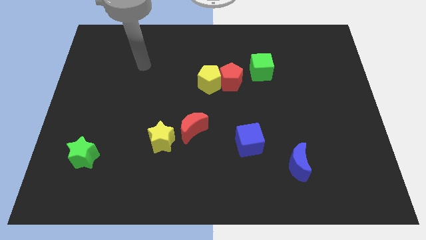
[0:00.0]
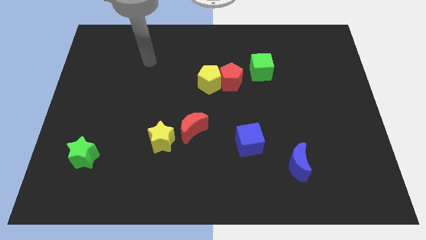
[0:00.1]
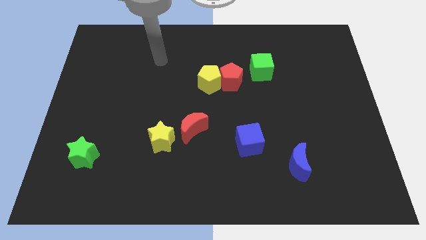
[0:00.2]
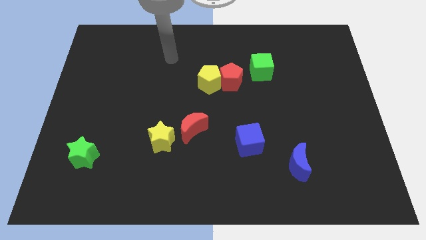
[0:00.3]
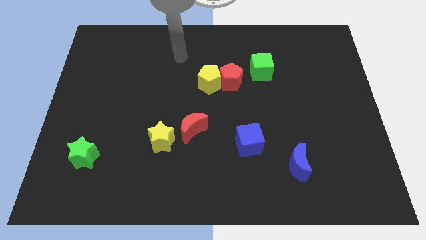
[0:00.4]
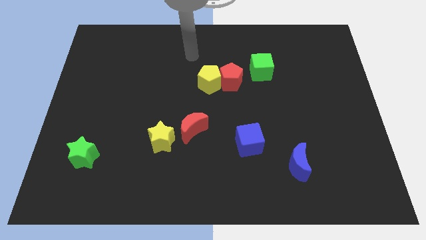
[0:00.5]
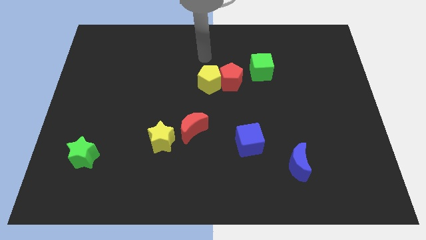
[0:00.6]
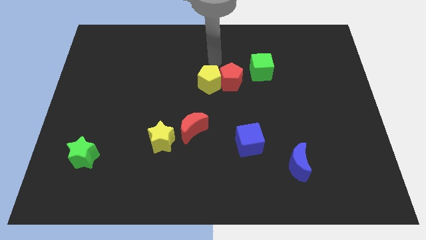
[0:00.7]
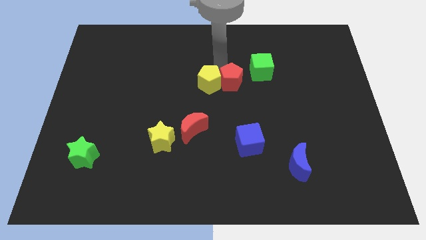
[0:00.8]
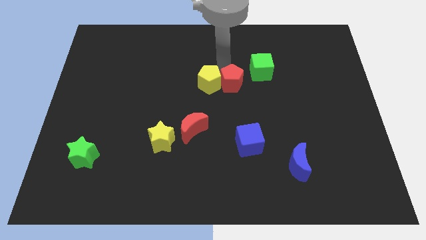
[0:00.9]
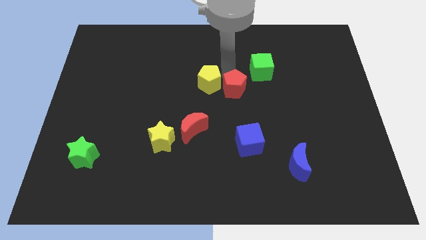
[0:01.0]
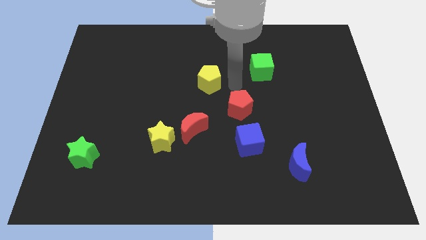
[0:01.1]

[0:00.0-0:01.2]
move the yellow pentagon away from the red pentagon

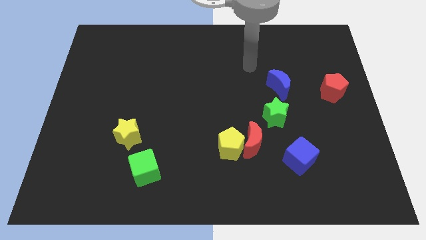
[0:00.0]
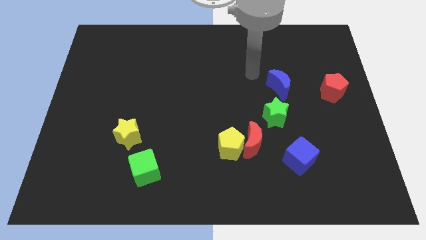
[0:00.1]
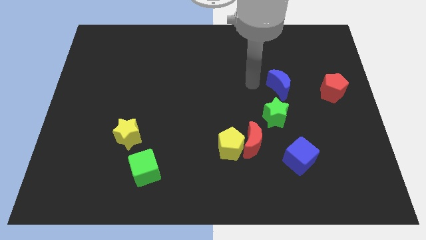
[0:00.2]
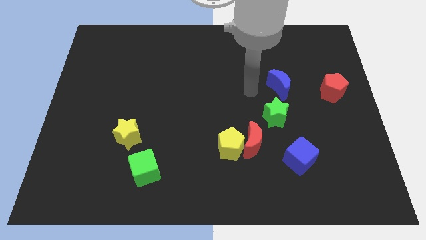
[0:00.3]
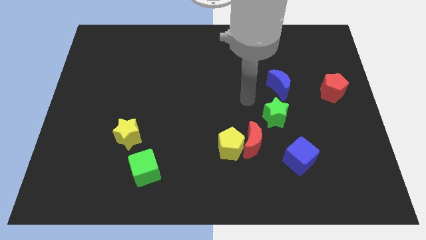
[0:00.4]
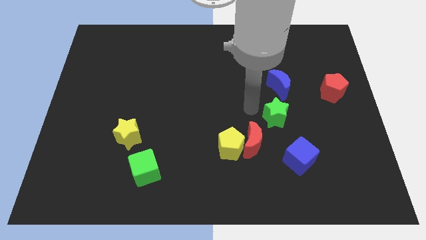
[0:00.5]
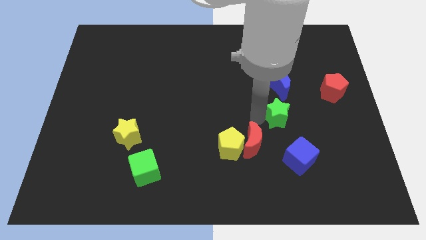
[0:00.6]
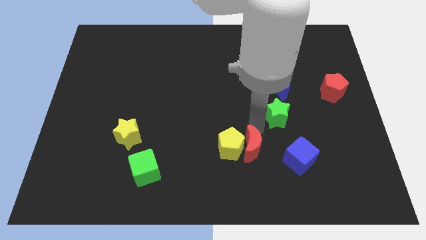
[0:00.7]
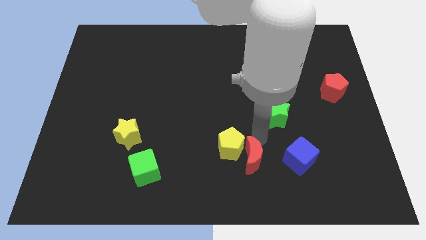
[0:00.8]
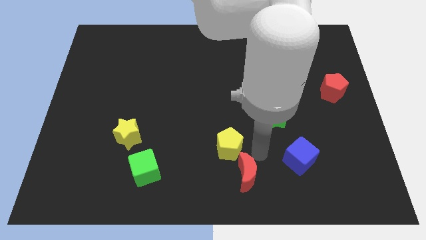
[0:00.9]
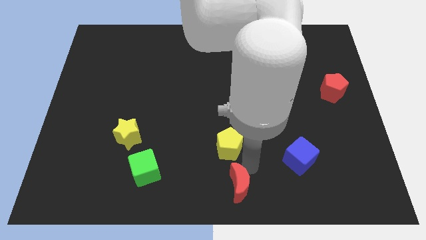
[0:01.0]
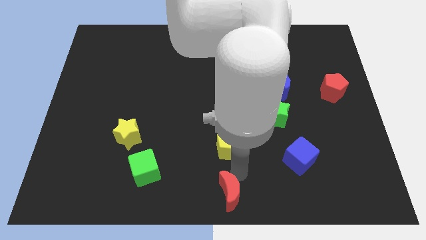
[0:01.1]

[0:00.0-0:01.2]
separate the yellow pentagon from the red moon

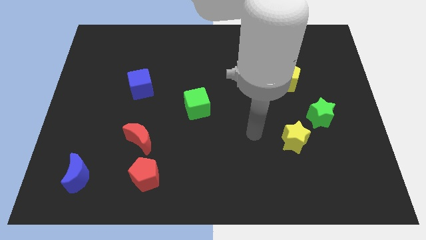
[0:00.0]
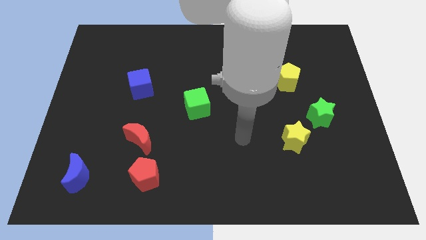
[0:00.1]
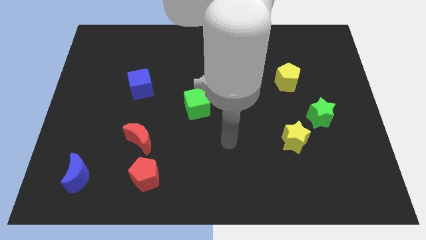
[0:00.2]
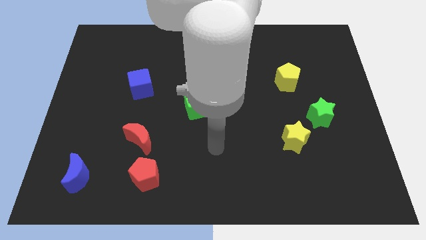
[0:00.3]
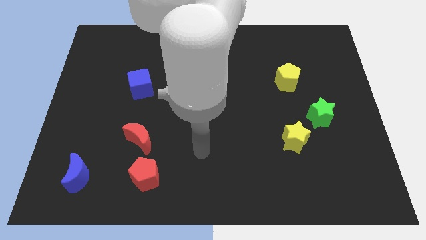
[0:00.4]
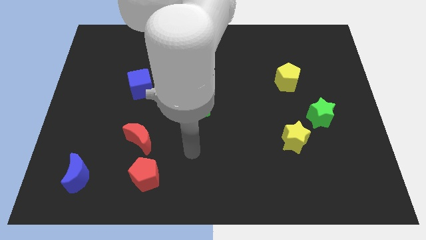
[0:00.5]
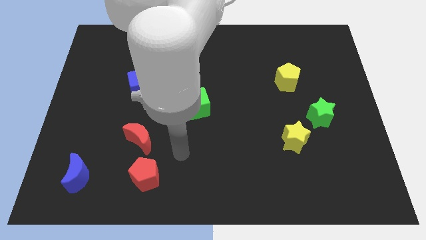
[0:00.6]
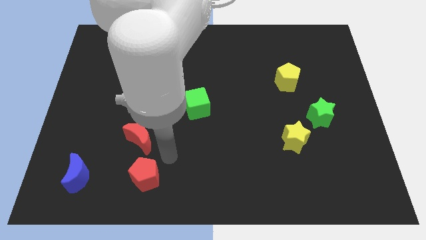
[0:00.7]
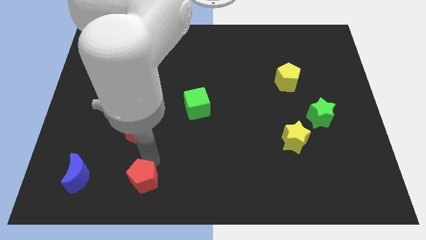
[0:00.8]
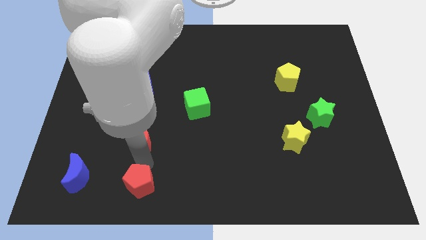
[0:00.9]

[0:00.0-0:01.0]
separate the red moon from the red pentagon

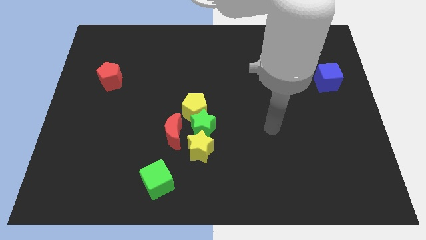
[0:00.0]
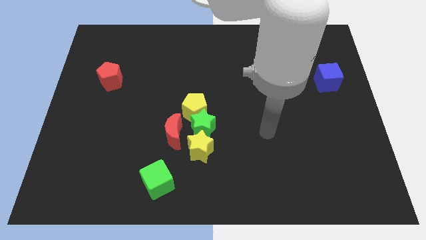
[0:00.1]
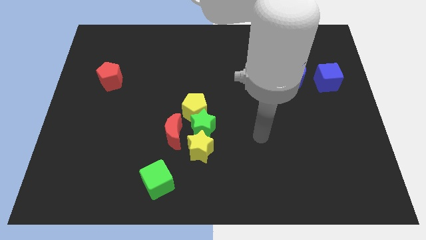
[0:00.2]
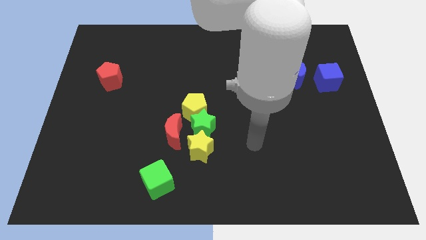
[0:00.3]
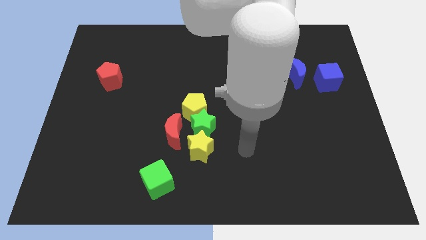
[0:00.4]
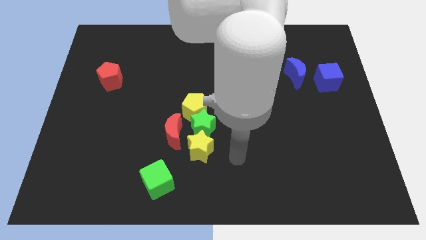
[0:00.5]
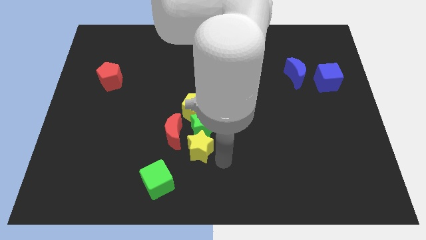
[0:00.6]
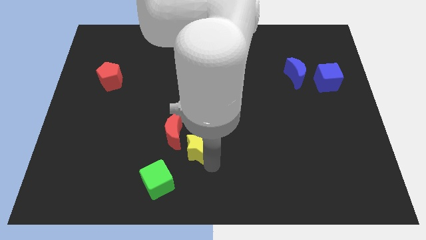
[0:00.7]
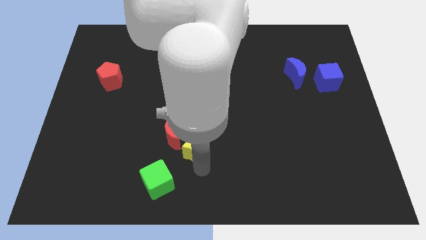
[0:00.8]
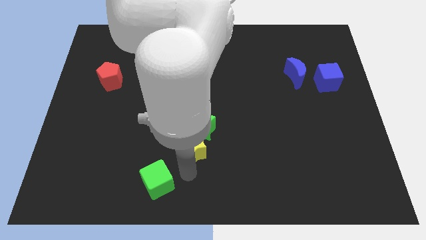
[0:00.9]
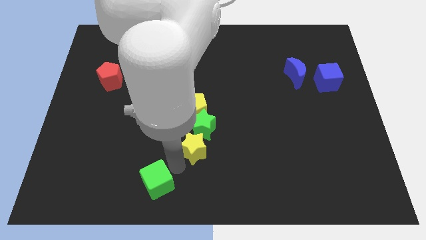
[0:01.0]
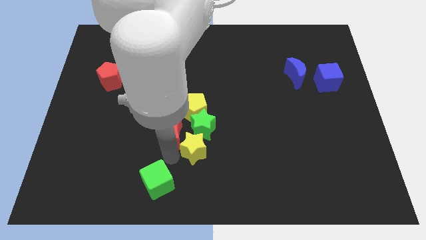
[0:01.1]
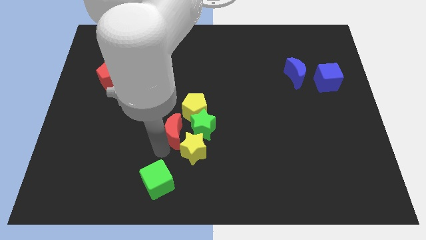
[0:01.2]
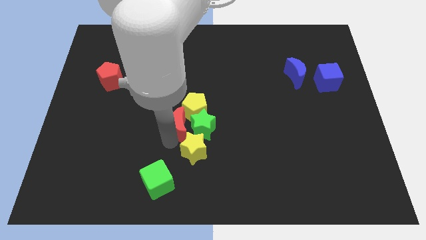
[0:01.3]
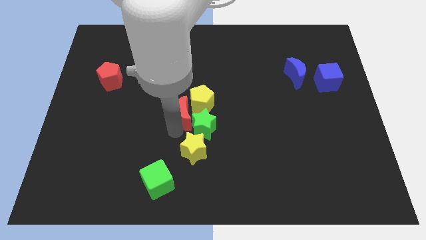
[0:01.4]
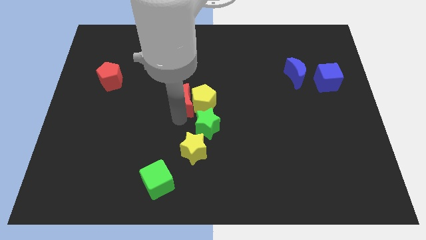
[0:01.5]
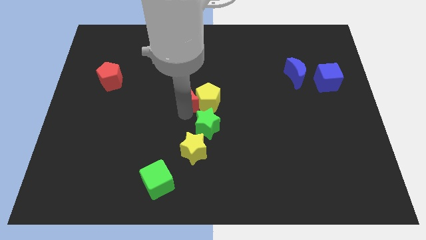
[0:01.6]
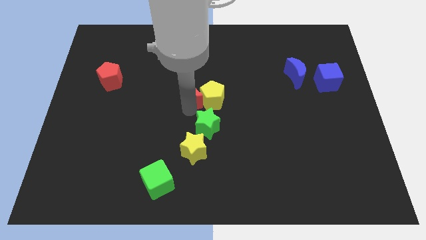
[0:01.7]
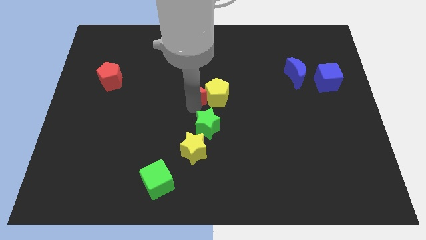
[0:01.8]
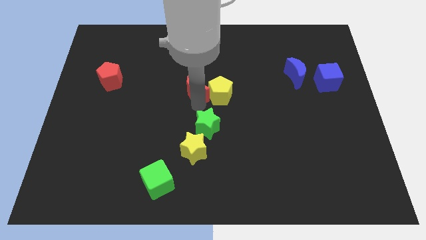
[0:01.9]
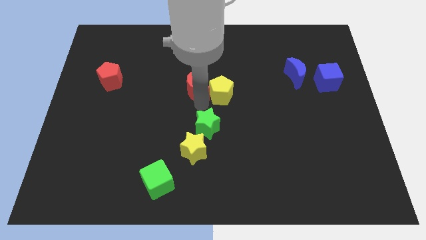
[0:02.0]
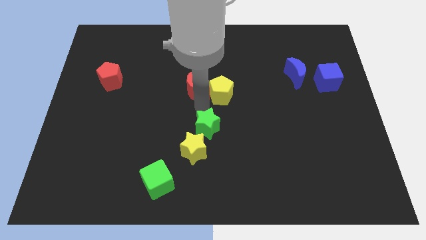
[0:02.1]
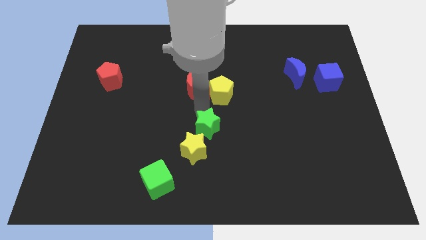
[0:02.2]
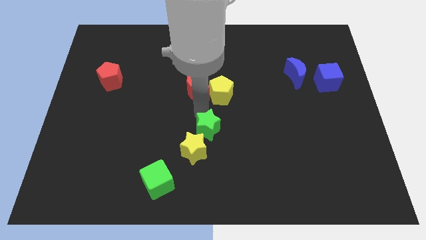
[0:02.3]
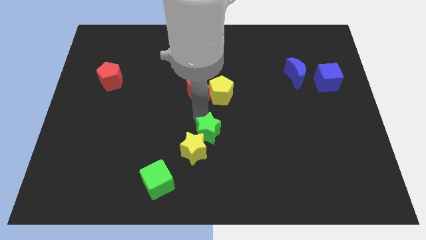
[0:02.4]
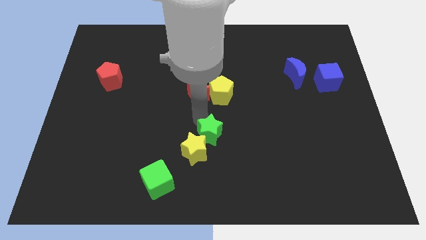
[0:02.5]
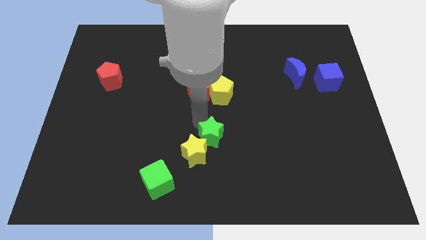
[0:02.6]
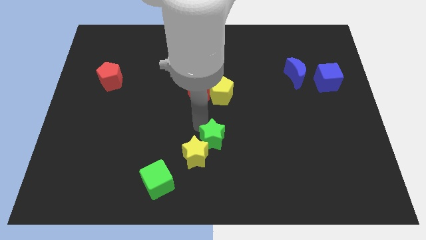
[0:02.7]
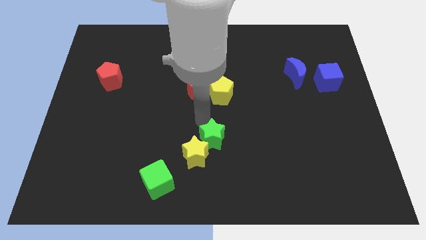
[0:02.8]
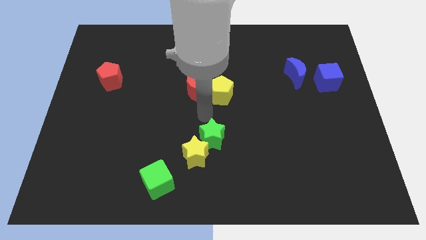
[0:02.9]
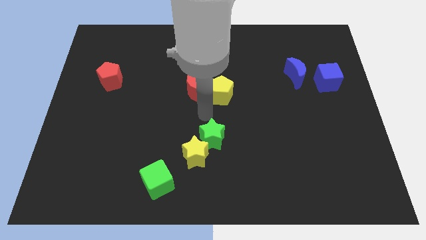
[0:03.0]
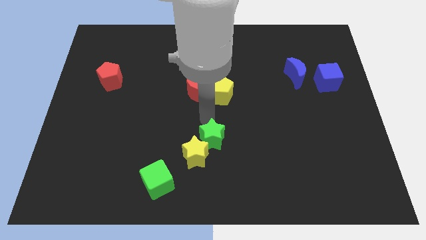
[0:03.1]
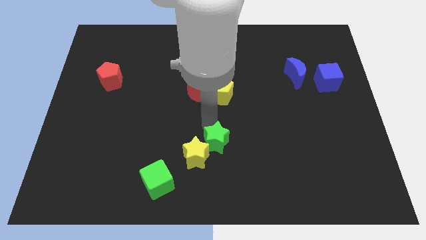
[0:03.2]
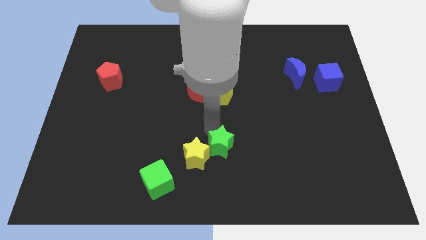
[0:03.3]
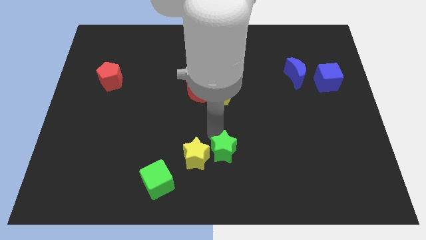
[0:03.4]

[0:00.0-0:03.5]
move the green star away from the yellow pentagon, yellow star, and red moon

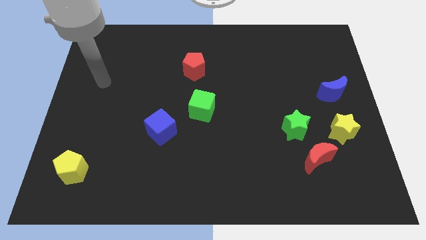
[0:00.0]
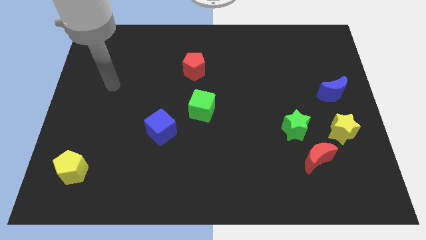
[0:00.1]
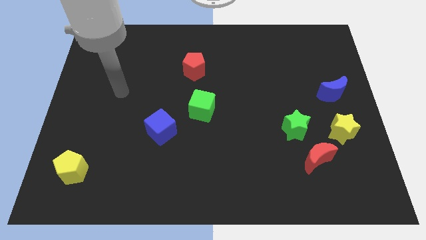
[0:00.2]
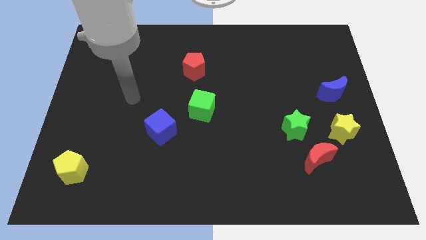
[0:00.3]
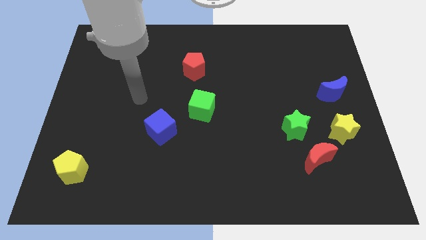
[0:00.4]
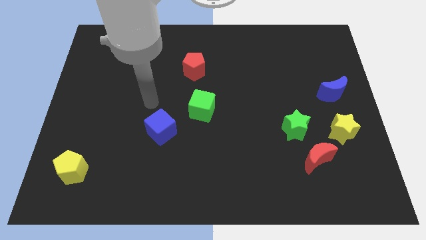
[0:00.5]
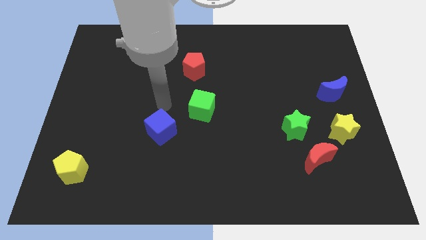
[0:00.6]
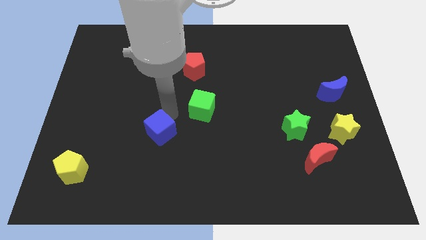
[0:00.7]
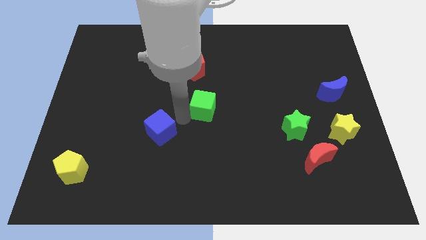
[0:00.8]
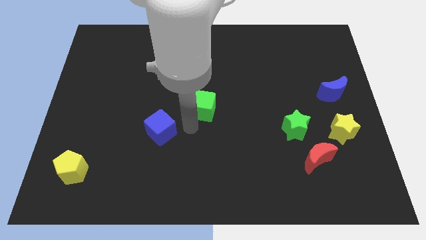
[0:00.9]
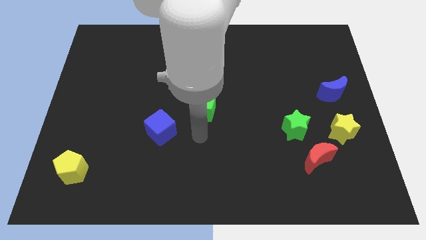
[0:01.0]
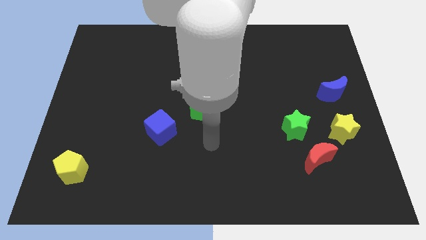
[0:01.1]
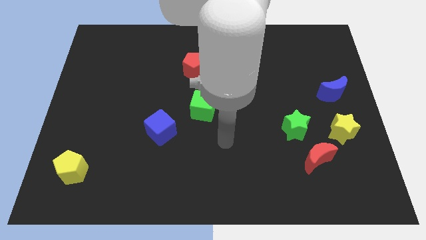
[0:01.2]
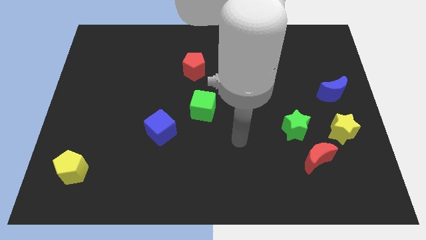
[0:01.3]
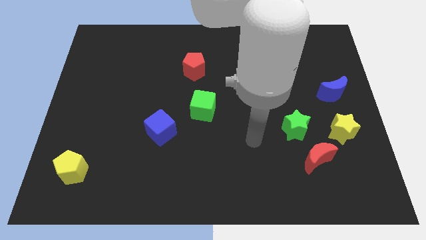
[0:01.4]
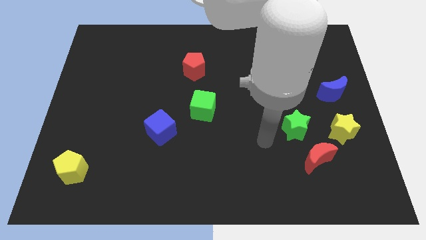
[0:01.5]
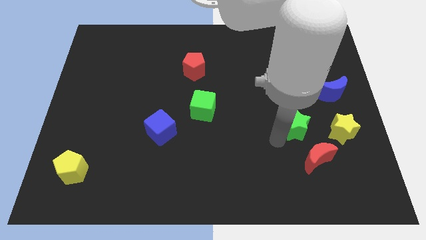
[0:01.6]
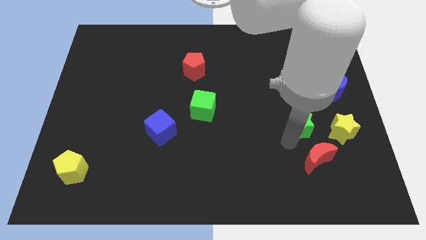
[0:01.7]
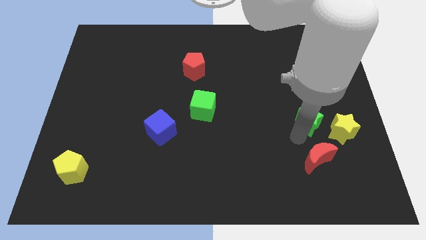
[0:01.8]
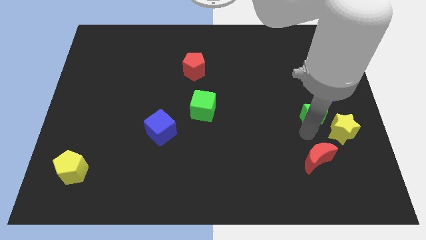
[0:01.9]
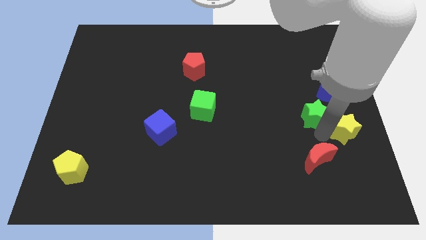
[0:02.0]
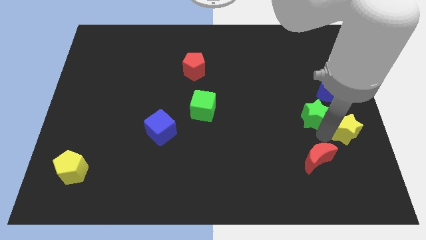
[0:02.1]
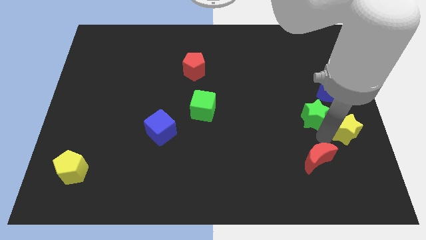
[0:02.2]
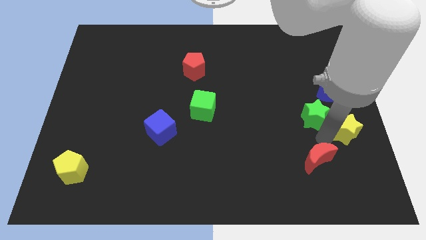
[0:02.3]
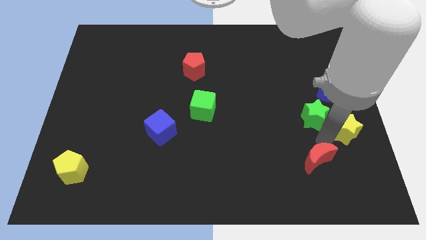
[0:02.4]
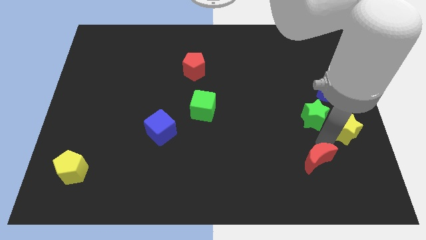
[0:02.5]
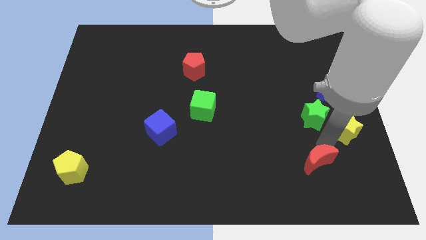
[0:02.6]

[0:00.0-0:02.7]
pull the red moon apart from the green star and yellow star
